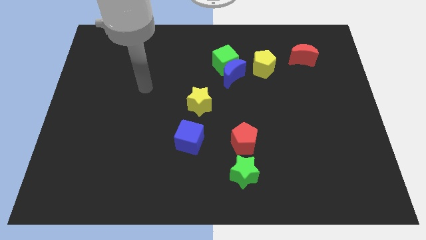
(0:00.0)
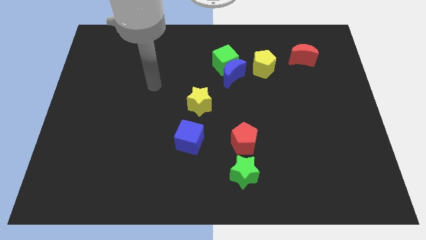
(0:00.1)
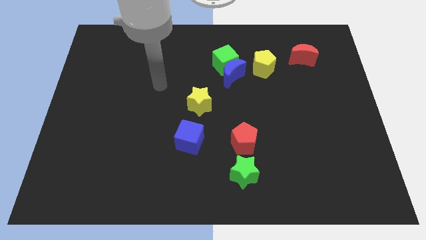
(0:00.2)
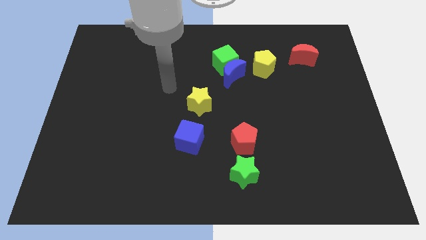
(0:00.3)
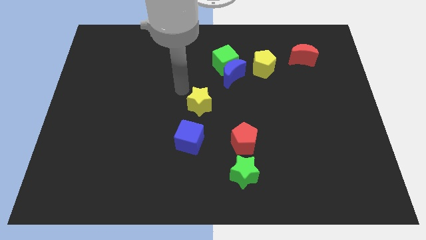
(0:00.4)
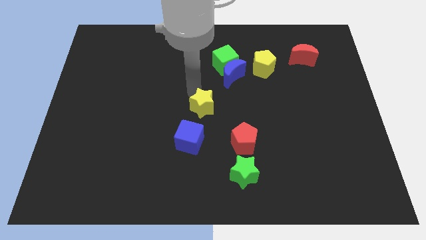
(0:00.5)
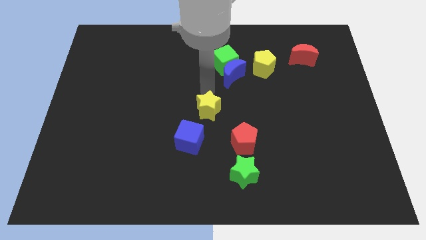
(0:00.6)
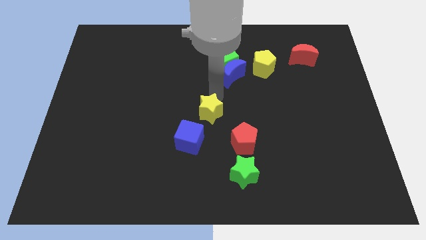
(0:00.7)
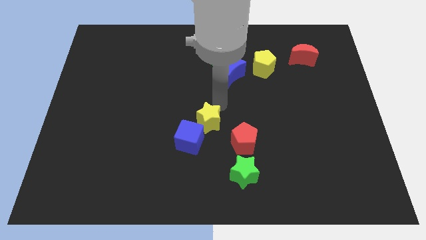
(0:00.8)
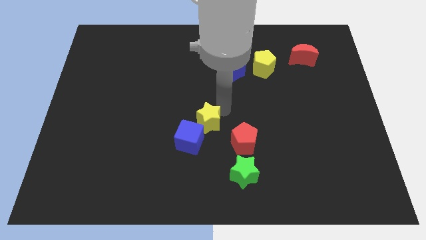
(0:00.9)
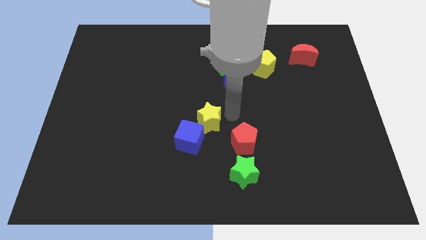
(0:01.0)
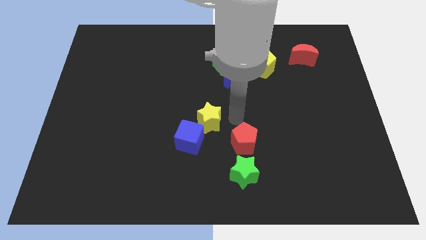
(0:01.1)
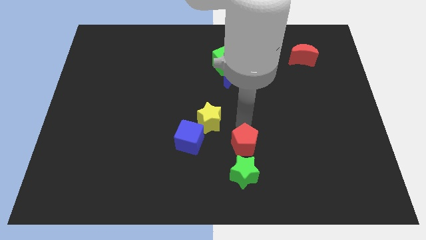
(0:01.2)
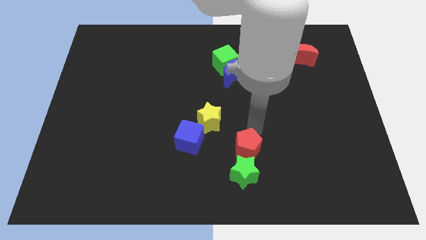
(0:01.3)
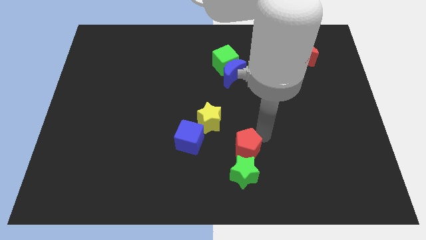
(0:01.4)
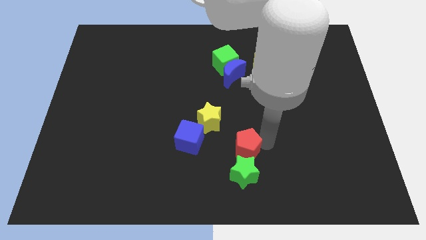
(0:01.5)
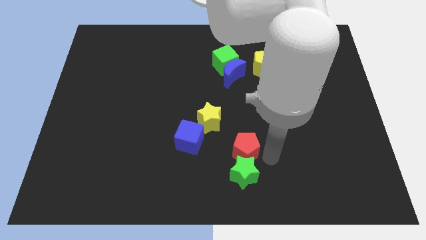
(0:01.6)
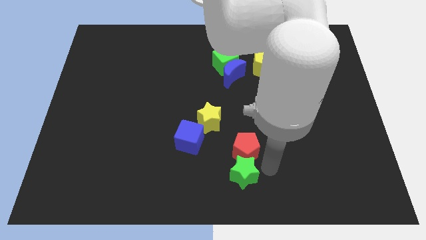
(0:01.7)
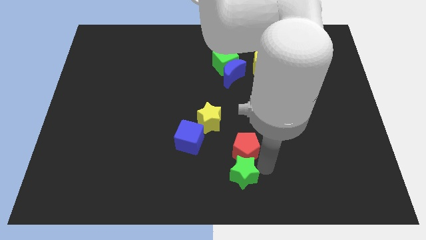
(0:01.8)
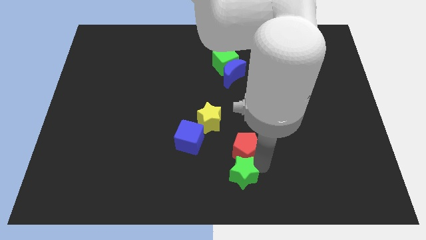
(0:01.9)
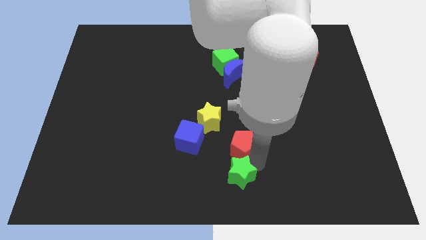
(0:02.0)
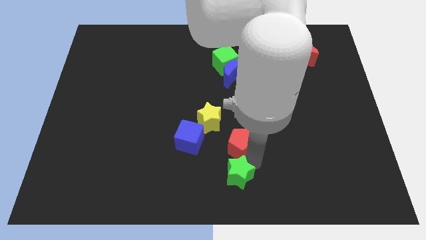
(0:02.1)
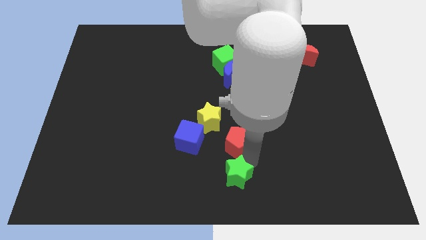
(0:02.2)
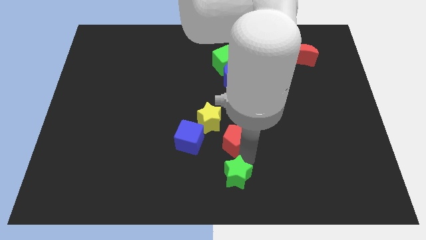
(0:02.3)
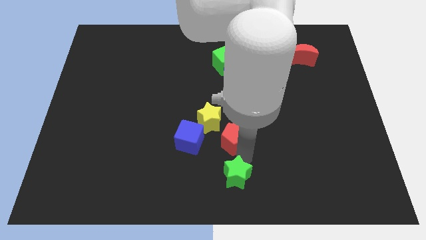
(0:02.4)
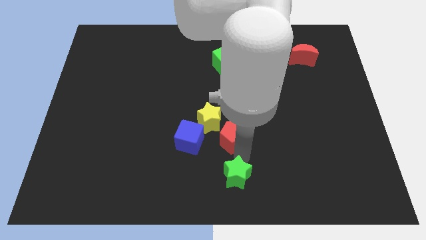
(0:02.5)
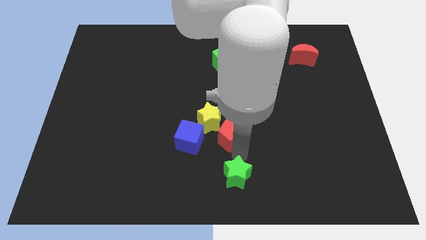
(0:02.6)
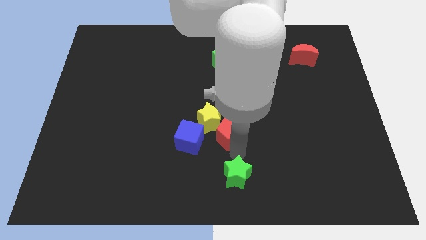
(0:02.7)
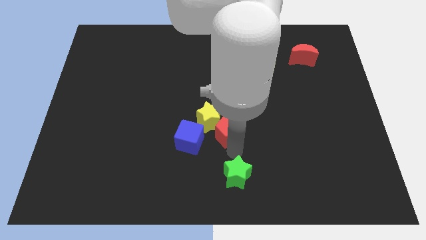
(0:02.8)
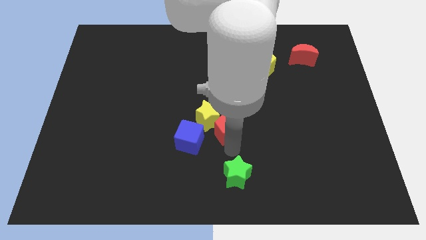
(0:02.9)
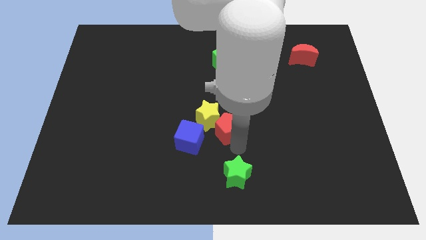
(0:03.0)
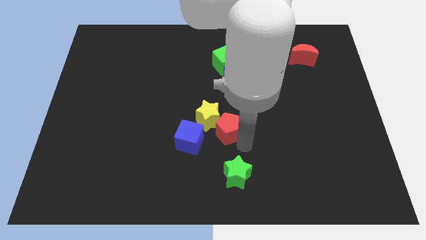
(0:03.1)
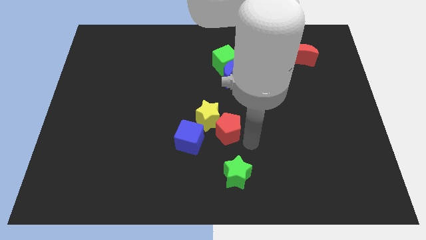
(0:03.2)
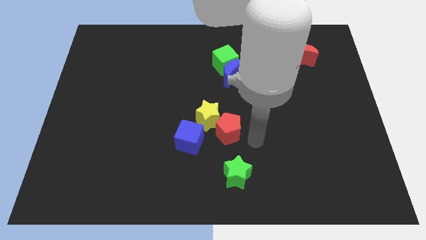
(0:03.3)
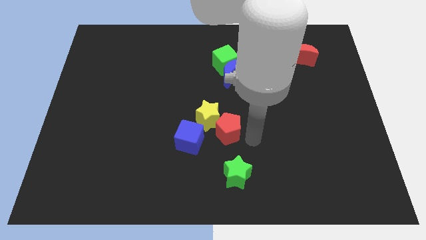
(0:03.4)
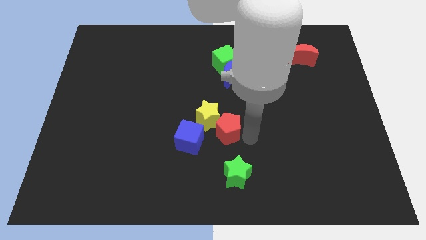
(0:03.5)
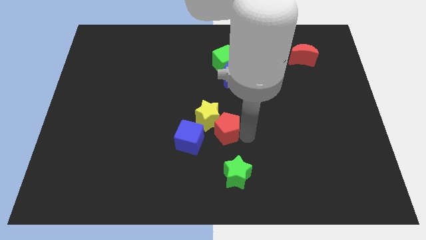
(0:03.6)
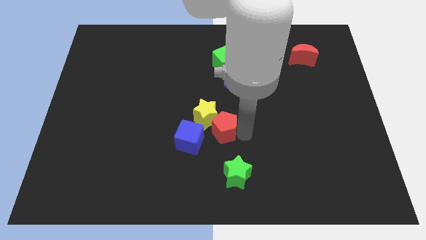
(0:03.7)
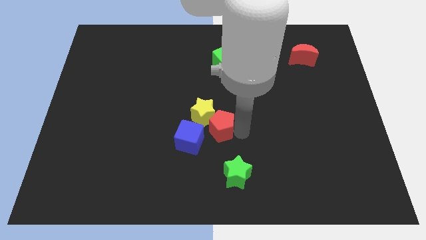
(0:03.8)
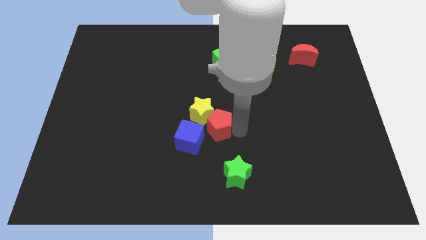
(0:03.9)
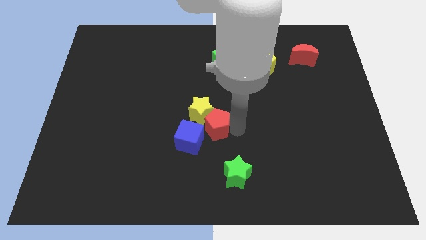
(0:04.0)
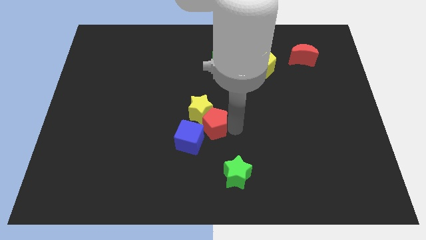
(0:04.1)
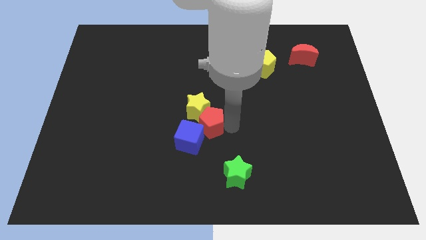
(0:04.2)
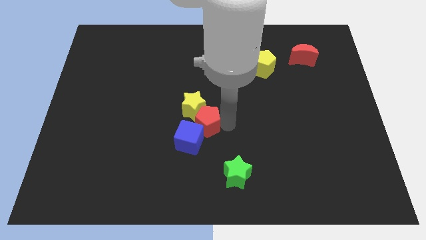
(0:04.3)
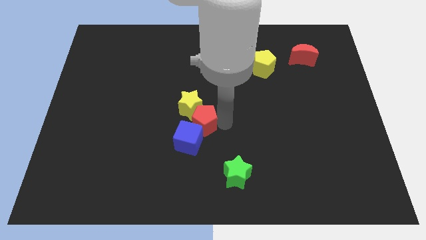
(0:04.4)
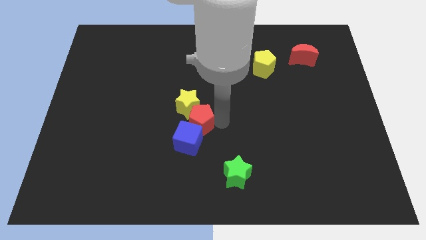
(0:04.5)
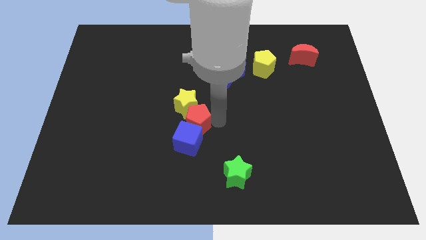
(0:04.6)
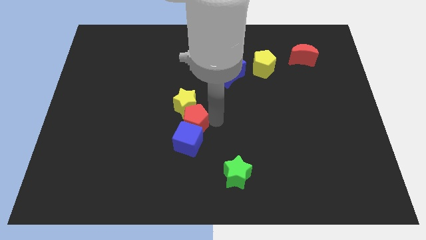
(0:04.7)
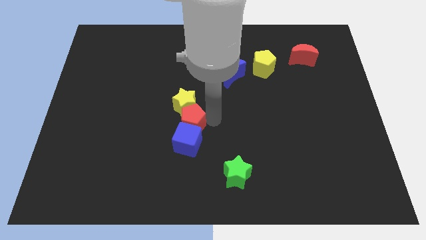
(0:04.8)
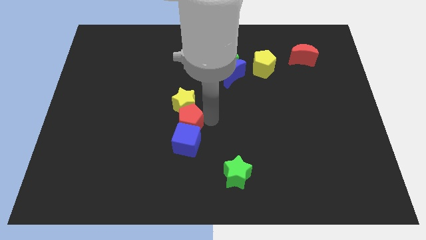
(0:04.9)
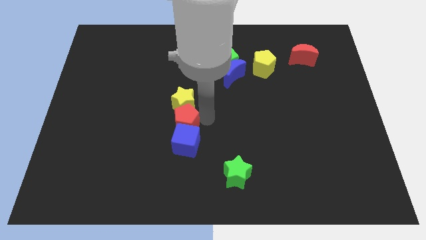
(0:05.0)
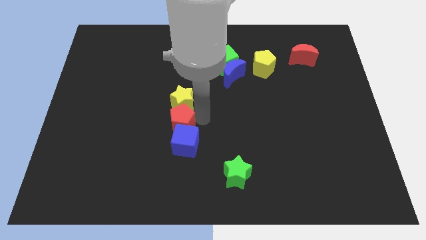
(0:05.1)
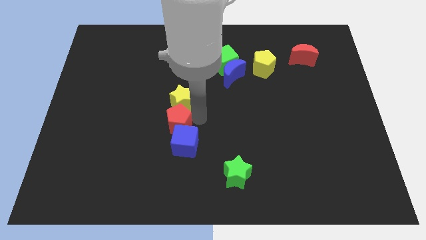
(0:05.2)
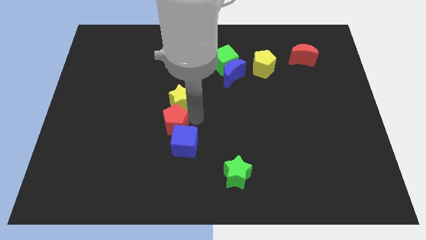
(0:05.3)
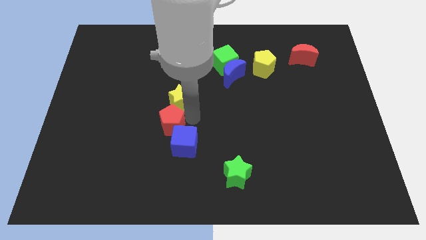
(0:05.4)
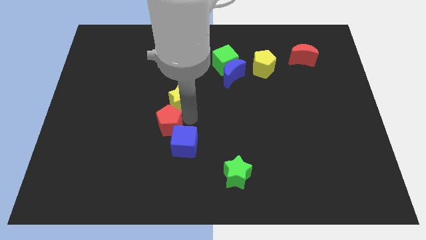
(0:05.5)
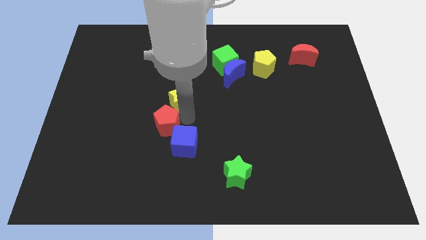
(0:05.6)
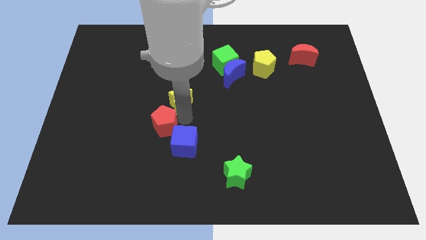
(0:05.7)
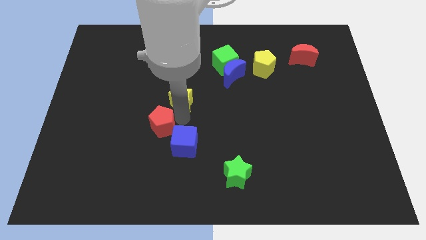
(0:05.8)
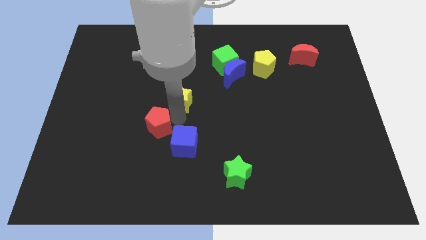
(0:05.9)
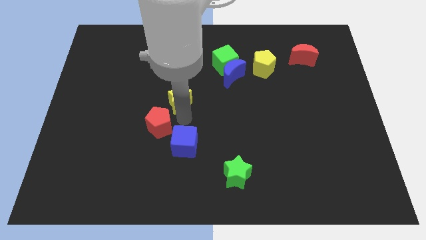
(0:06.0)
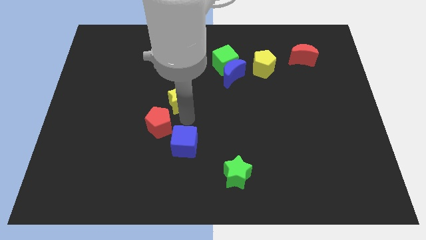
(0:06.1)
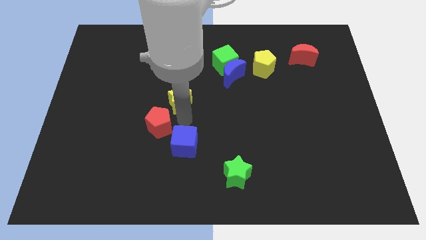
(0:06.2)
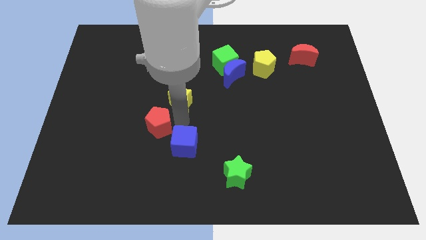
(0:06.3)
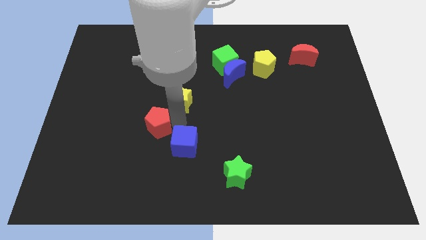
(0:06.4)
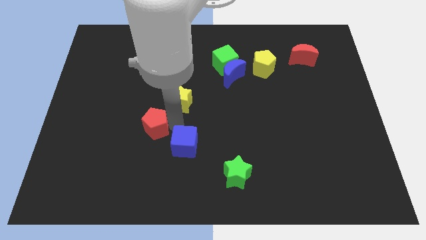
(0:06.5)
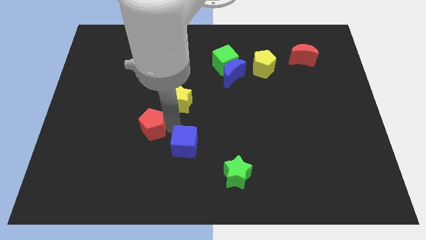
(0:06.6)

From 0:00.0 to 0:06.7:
move the red pentagon to the left

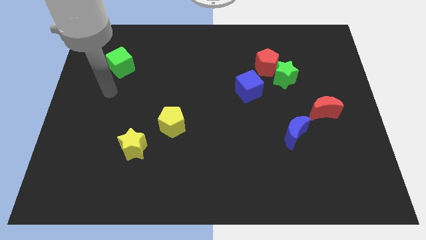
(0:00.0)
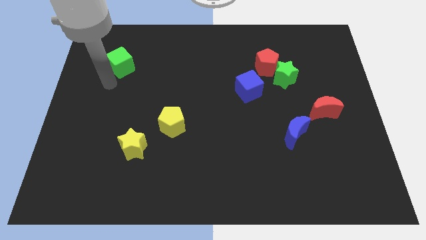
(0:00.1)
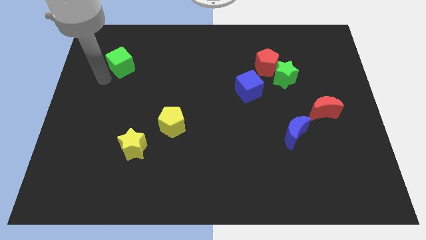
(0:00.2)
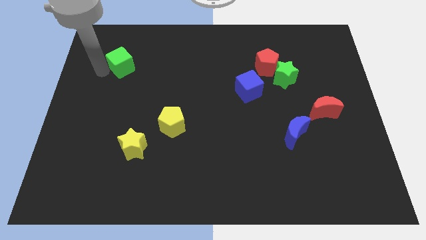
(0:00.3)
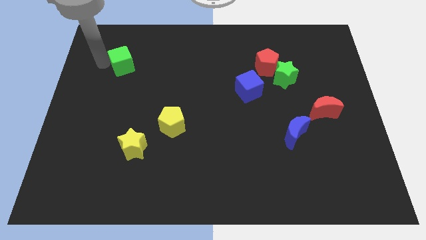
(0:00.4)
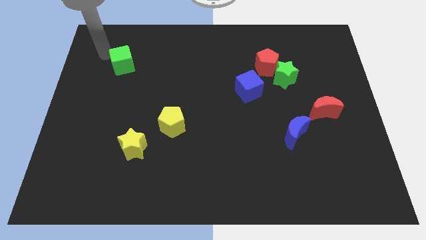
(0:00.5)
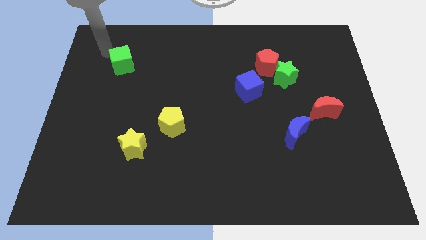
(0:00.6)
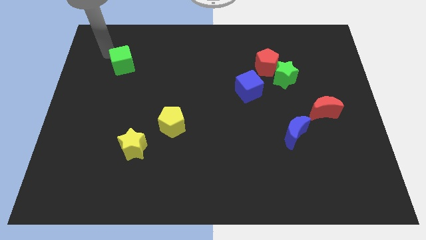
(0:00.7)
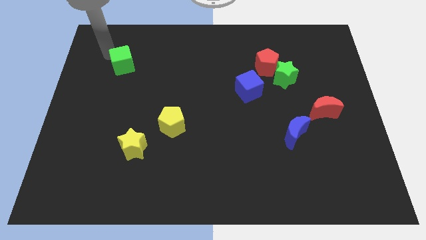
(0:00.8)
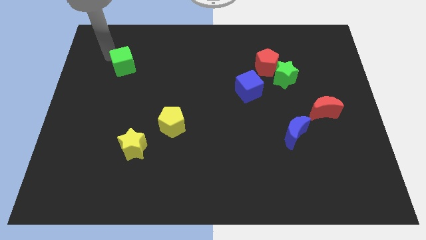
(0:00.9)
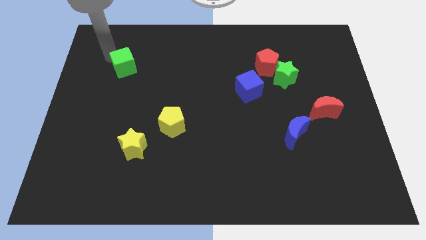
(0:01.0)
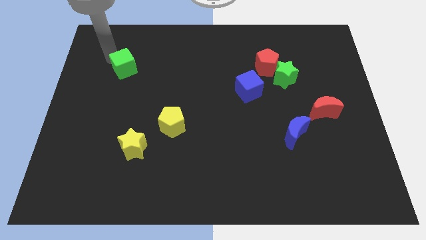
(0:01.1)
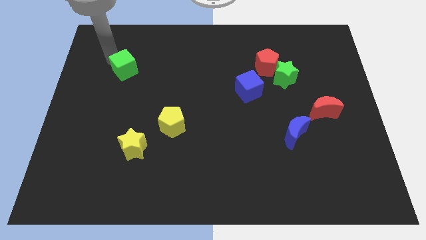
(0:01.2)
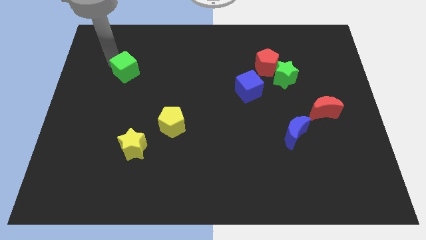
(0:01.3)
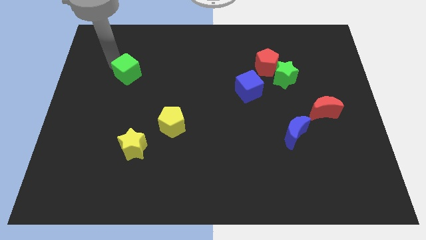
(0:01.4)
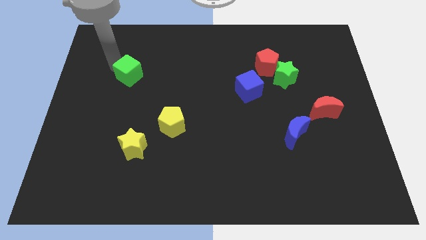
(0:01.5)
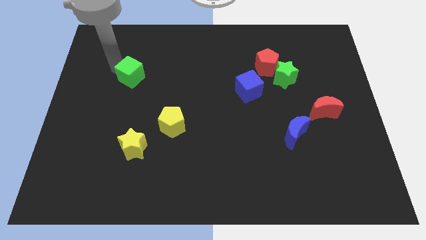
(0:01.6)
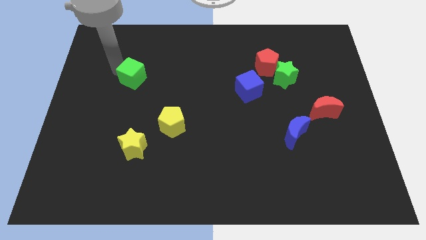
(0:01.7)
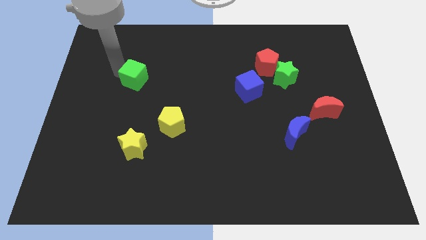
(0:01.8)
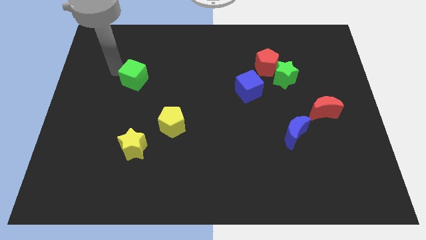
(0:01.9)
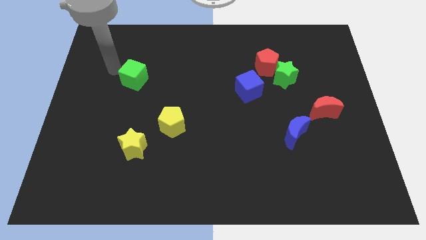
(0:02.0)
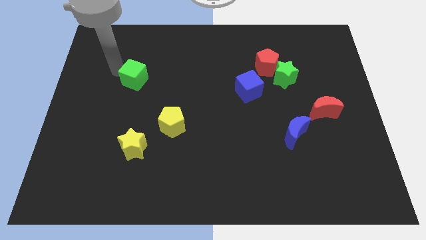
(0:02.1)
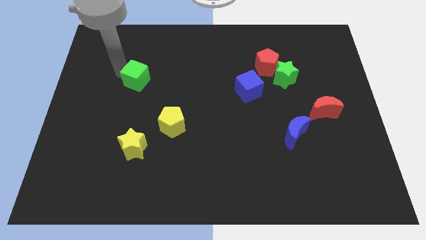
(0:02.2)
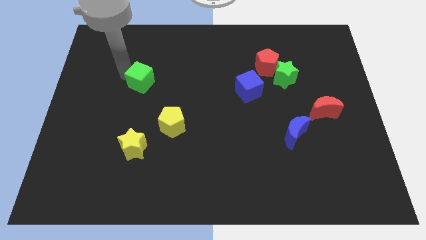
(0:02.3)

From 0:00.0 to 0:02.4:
slide the green cube a bit downwards and then right
